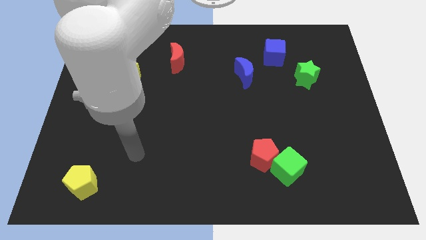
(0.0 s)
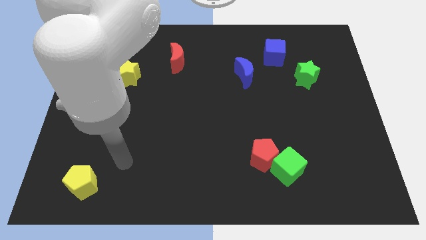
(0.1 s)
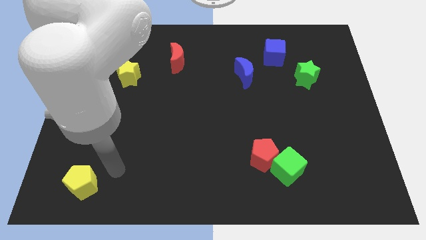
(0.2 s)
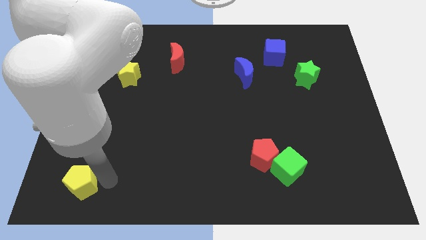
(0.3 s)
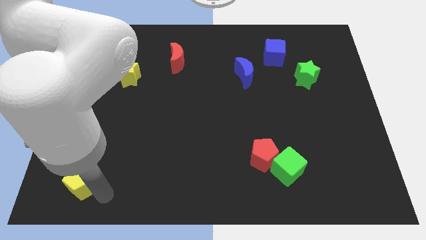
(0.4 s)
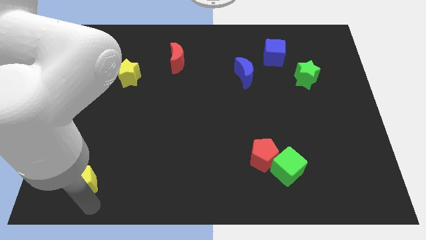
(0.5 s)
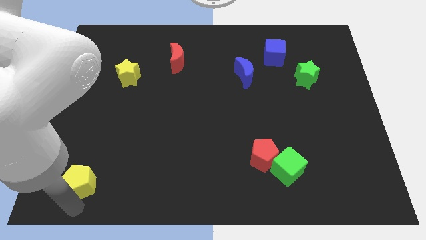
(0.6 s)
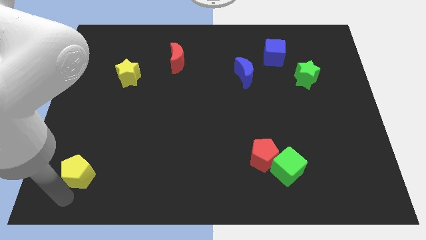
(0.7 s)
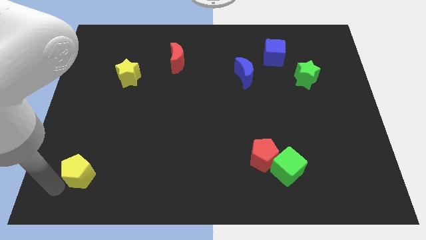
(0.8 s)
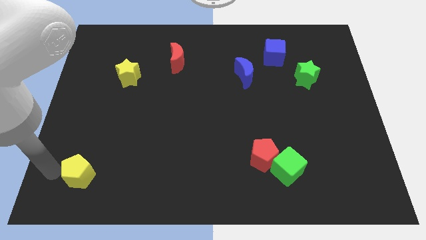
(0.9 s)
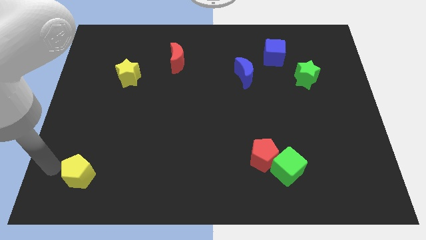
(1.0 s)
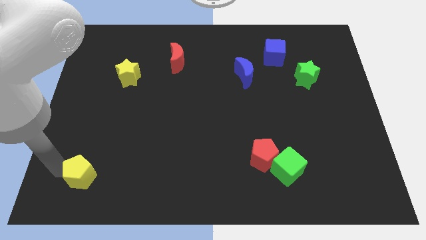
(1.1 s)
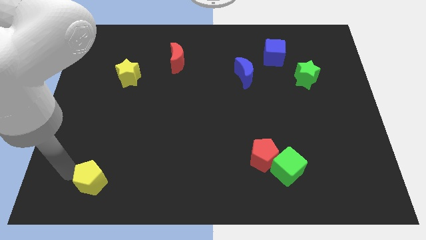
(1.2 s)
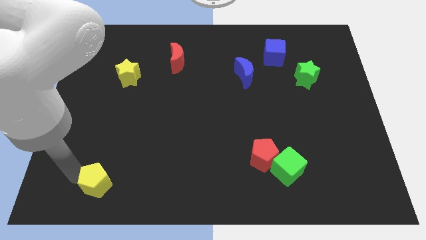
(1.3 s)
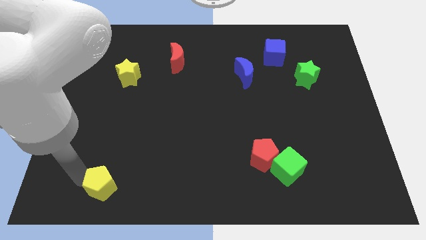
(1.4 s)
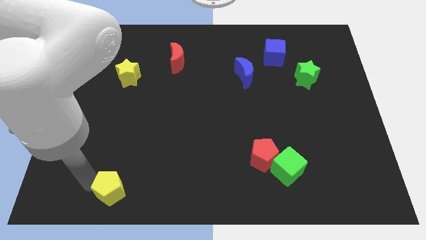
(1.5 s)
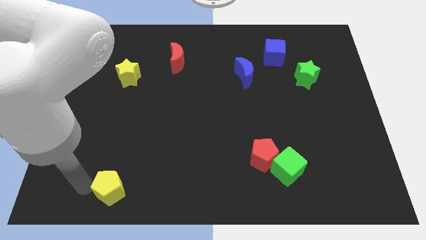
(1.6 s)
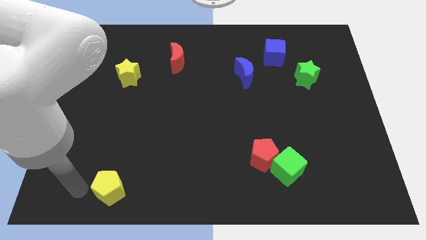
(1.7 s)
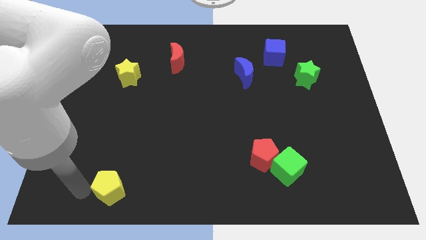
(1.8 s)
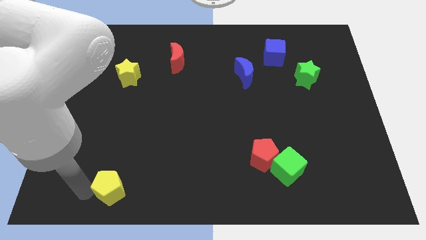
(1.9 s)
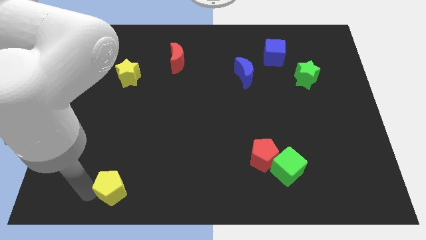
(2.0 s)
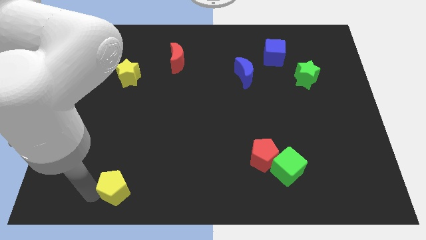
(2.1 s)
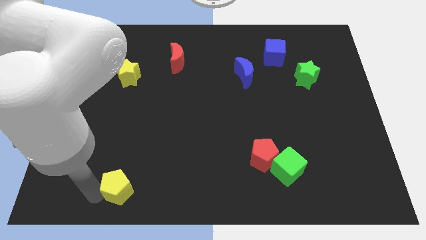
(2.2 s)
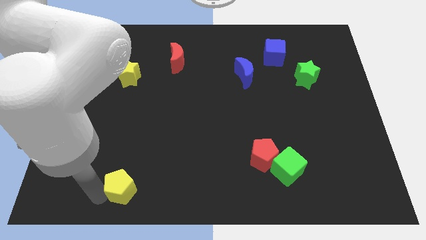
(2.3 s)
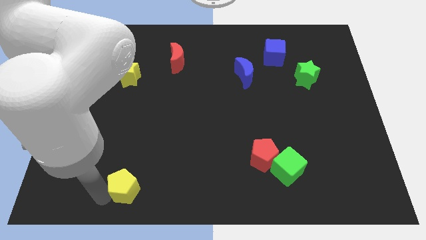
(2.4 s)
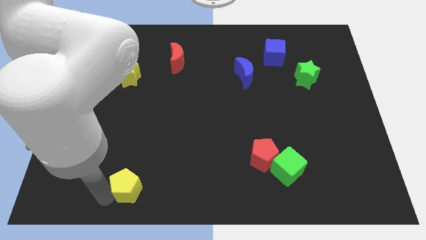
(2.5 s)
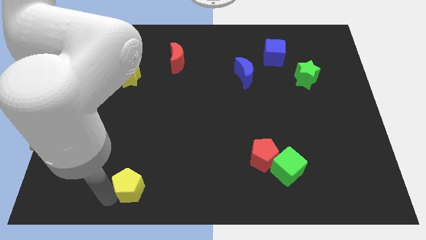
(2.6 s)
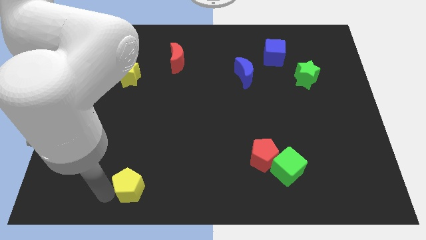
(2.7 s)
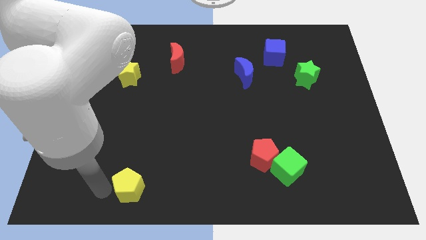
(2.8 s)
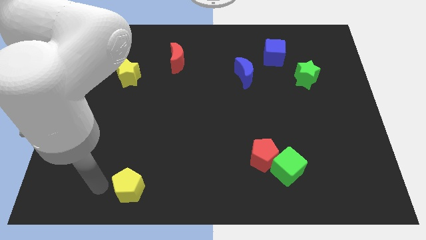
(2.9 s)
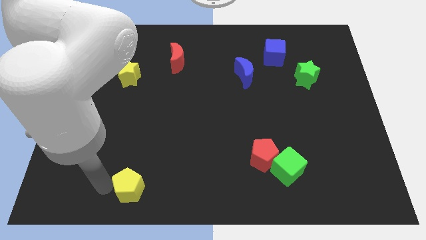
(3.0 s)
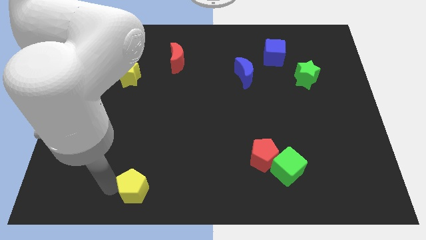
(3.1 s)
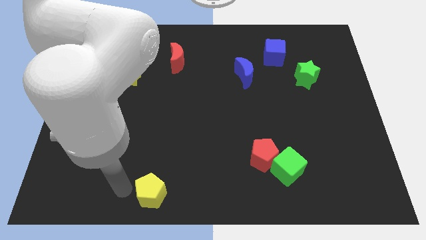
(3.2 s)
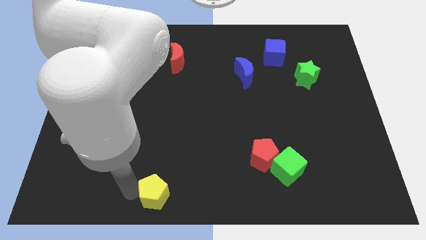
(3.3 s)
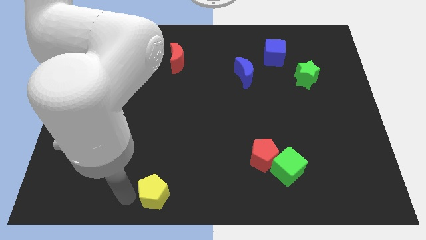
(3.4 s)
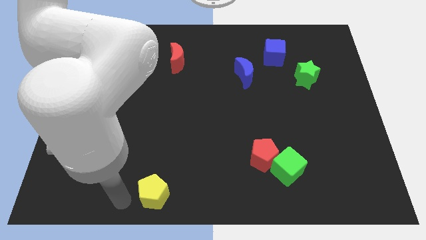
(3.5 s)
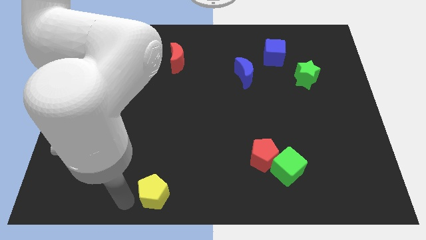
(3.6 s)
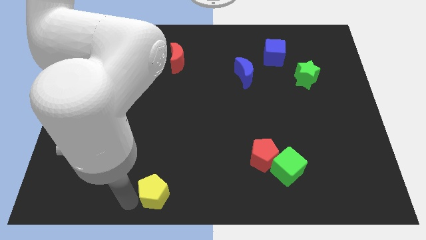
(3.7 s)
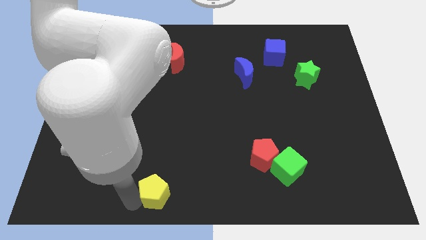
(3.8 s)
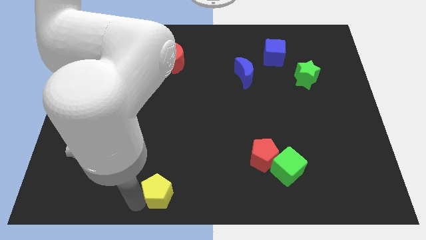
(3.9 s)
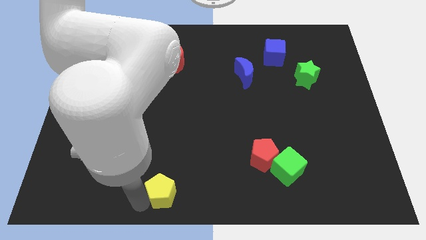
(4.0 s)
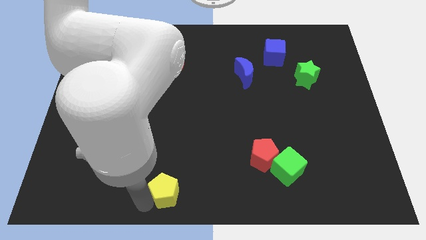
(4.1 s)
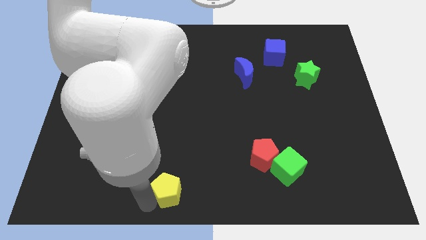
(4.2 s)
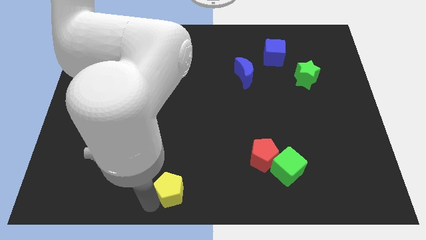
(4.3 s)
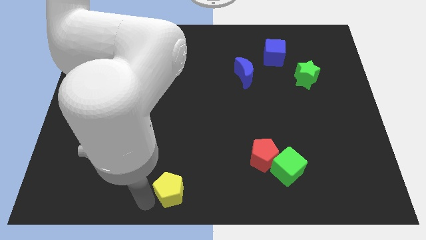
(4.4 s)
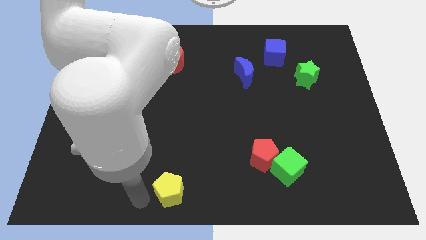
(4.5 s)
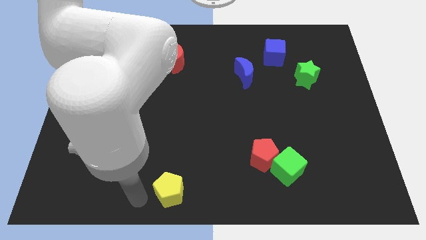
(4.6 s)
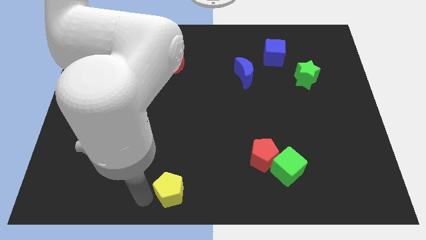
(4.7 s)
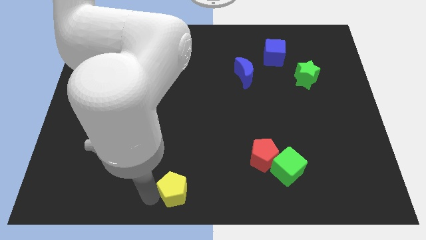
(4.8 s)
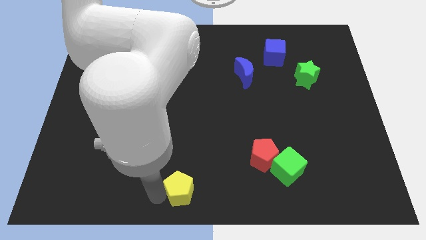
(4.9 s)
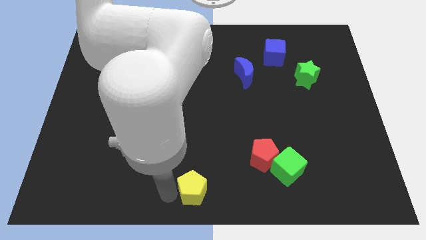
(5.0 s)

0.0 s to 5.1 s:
push the yellow pentagon right

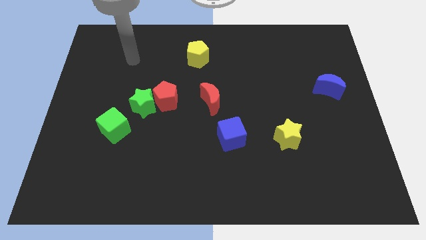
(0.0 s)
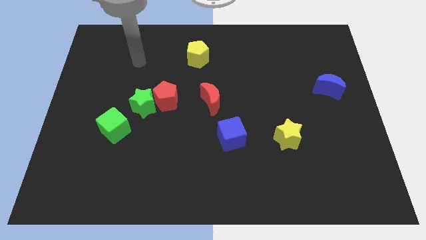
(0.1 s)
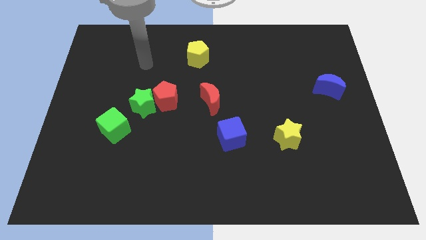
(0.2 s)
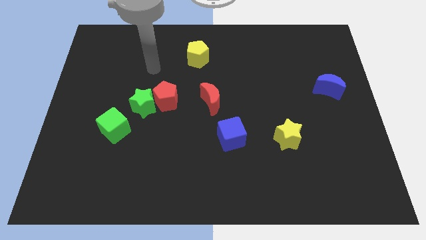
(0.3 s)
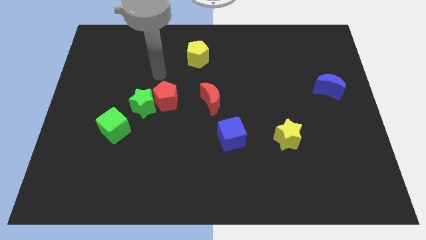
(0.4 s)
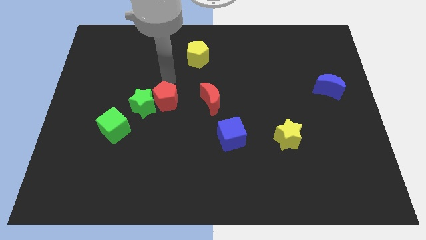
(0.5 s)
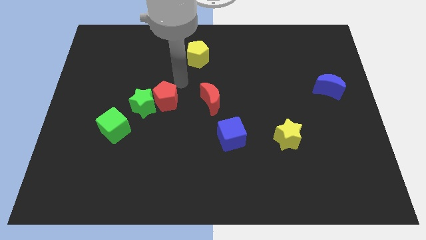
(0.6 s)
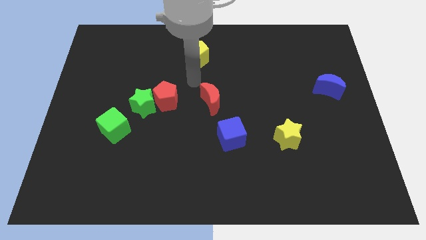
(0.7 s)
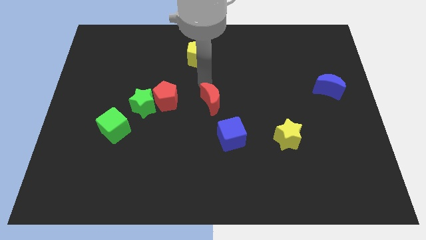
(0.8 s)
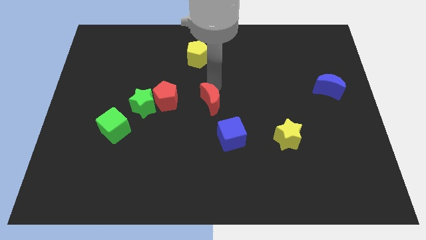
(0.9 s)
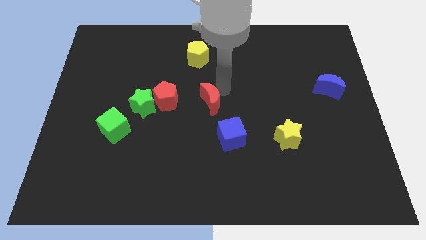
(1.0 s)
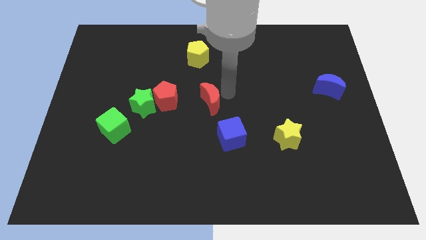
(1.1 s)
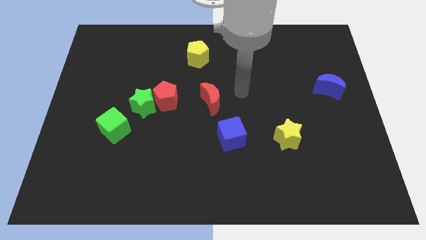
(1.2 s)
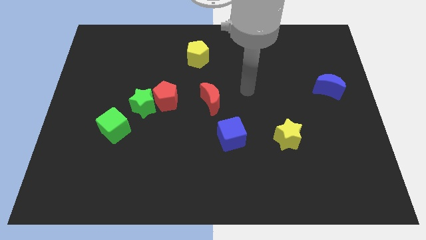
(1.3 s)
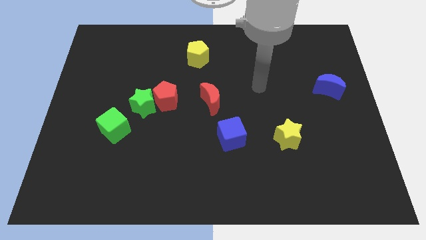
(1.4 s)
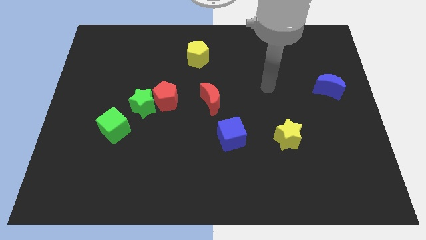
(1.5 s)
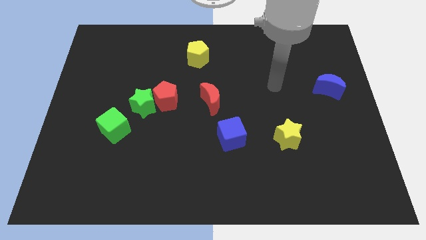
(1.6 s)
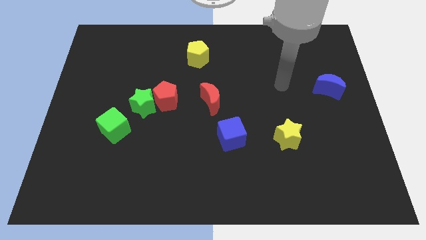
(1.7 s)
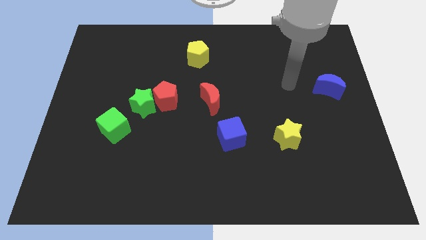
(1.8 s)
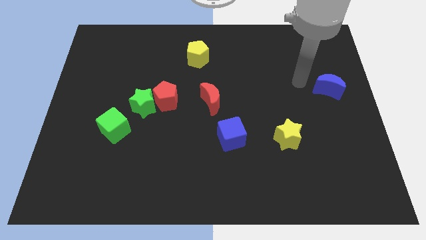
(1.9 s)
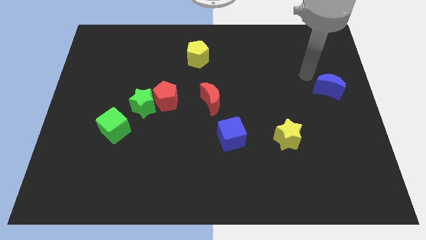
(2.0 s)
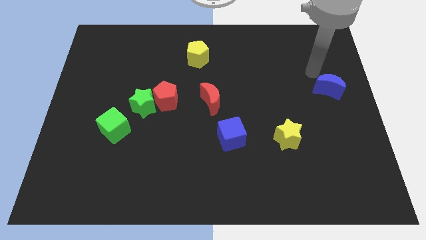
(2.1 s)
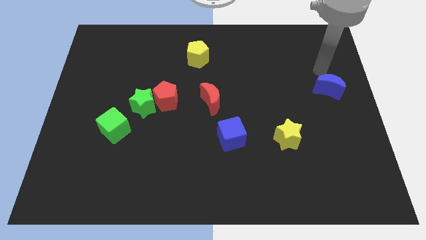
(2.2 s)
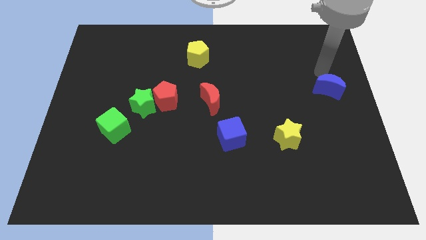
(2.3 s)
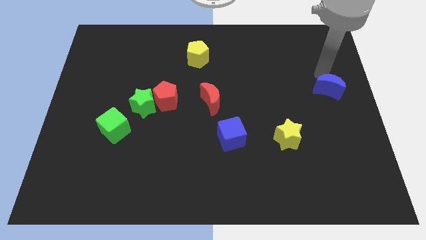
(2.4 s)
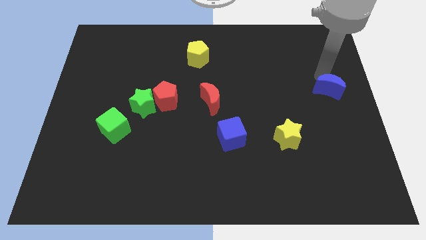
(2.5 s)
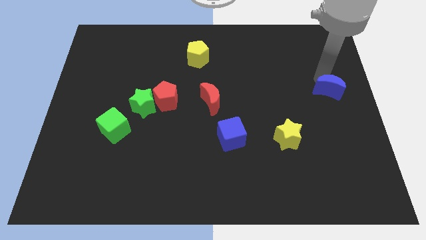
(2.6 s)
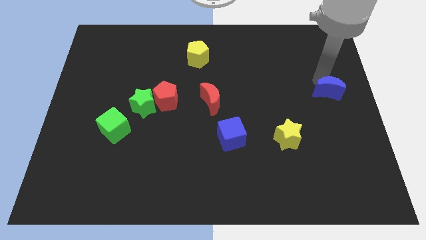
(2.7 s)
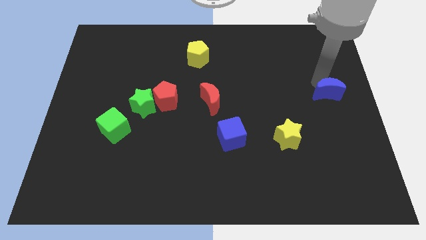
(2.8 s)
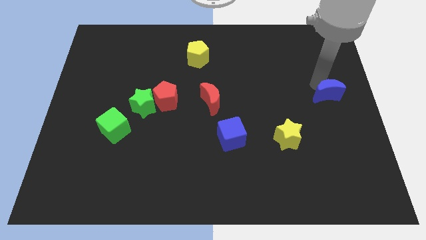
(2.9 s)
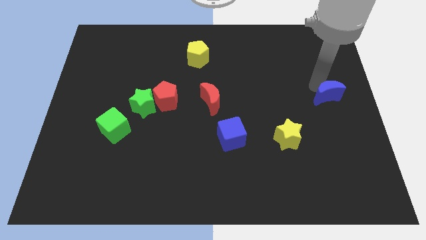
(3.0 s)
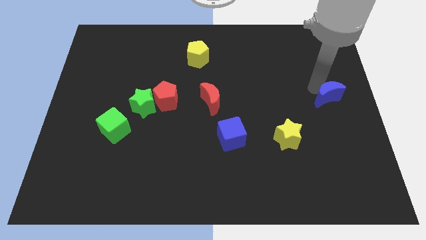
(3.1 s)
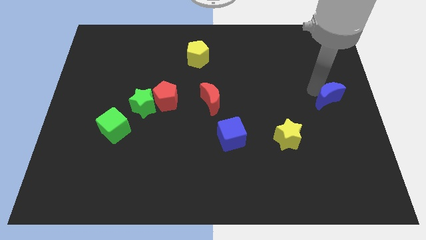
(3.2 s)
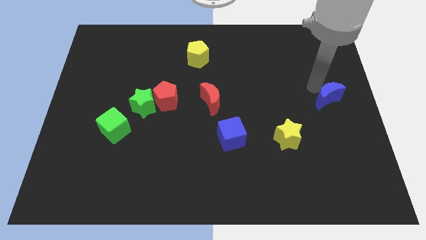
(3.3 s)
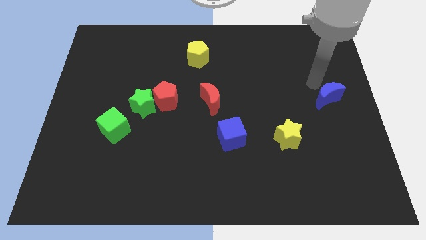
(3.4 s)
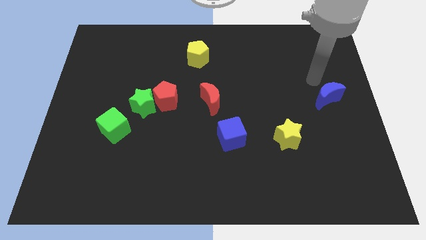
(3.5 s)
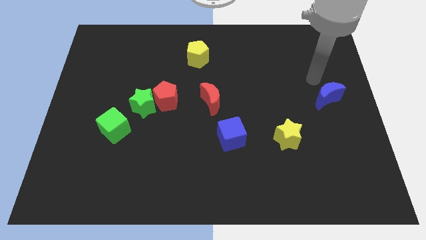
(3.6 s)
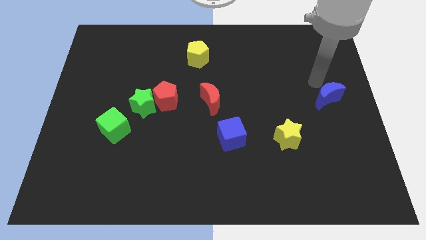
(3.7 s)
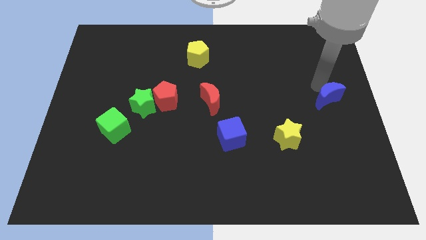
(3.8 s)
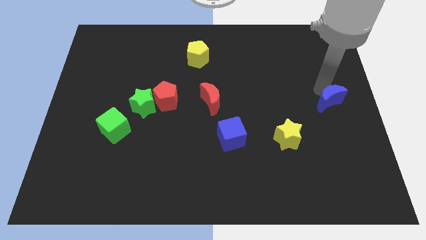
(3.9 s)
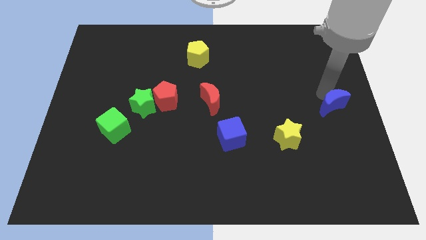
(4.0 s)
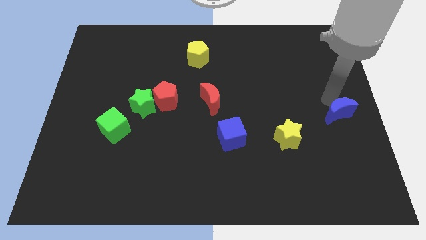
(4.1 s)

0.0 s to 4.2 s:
move the blue moon slightly downwards
